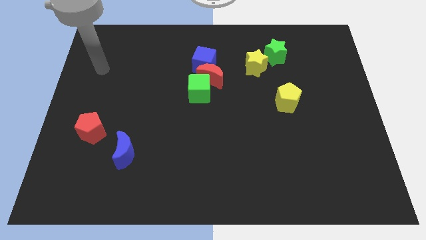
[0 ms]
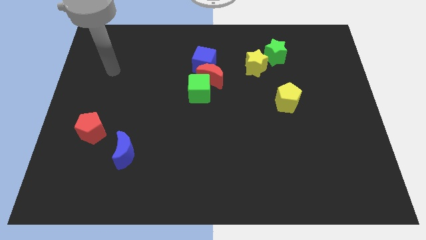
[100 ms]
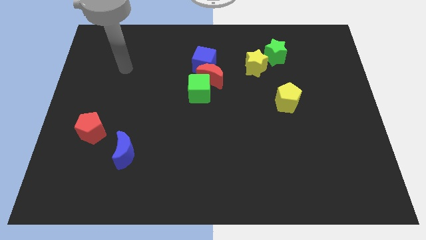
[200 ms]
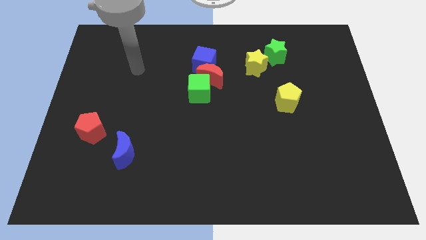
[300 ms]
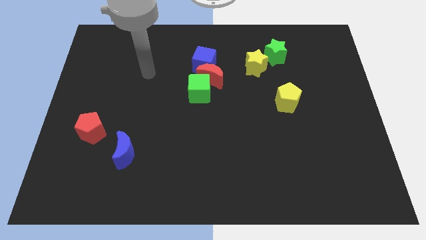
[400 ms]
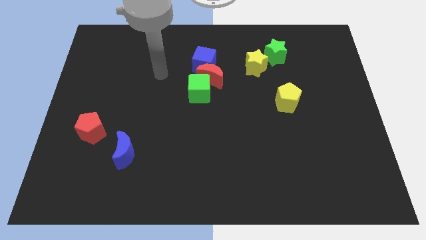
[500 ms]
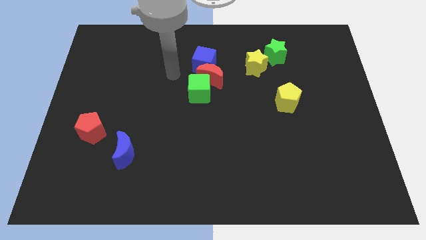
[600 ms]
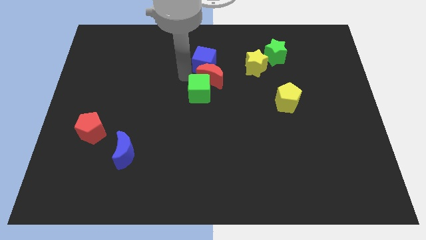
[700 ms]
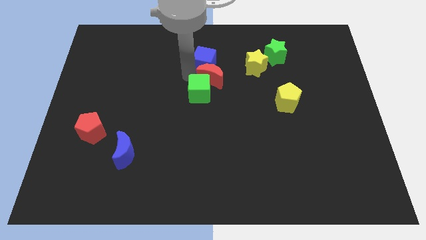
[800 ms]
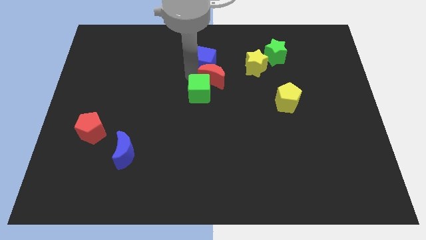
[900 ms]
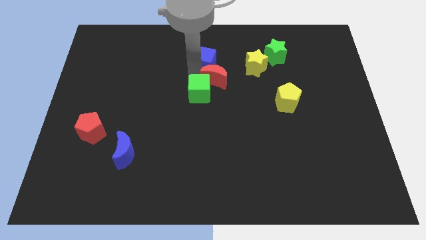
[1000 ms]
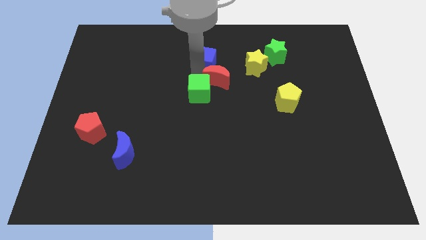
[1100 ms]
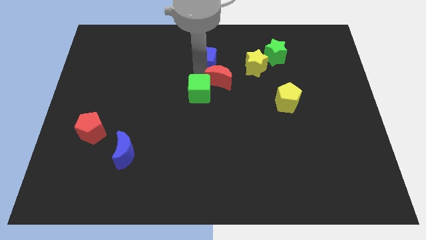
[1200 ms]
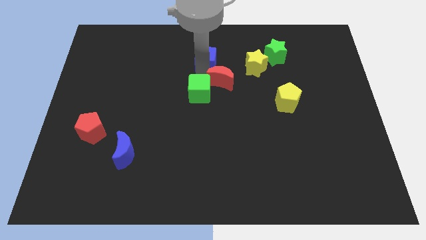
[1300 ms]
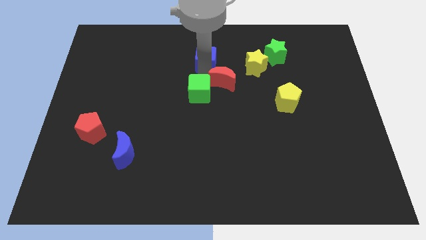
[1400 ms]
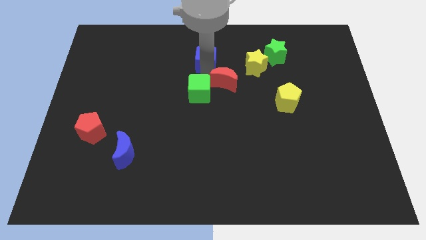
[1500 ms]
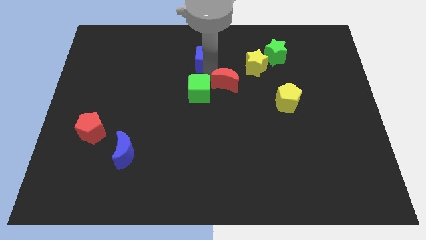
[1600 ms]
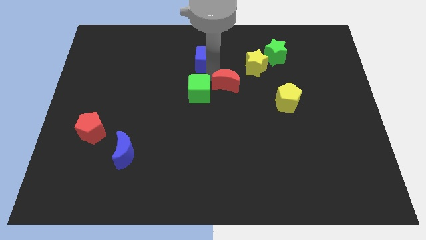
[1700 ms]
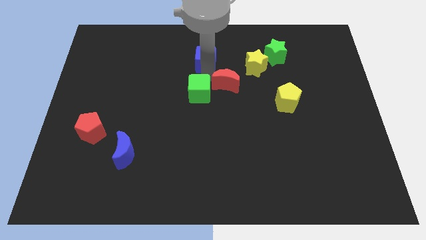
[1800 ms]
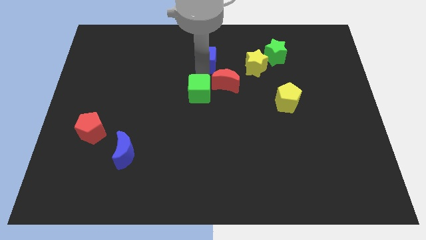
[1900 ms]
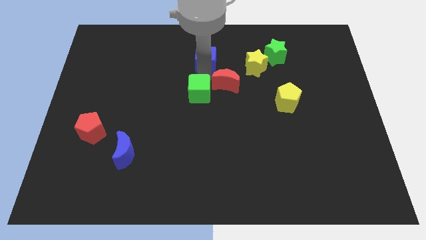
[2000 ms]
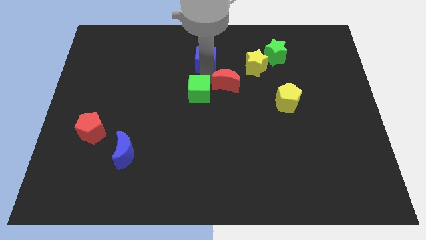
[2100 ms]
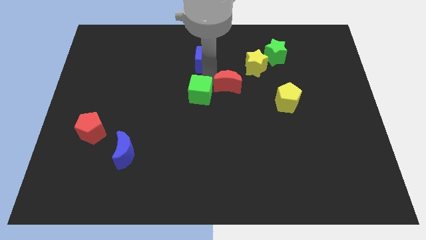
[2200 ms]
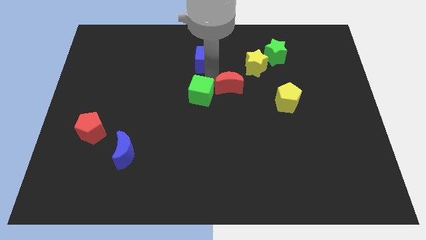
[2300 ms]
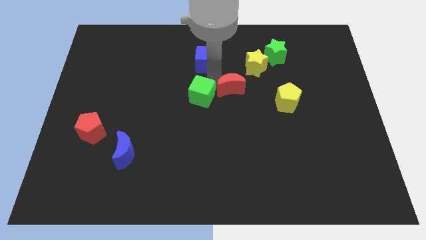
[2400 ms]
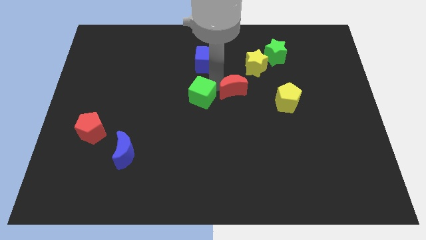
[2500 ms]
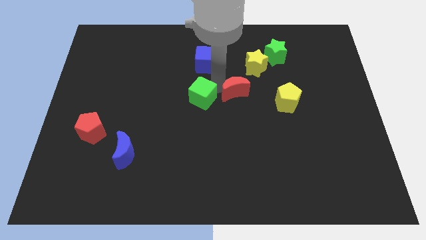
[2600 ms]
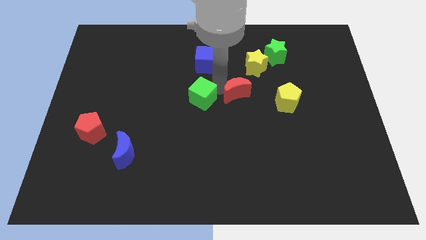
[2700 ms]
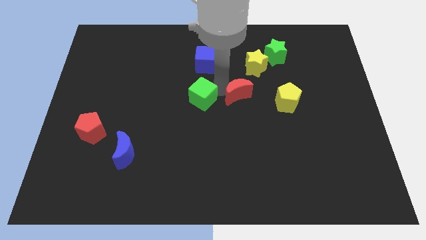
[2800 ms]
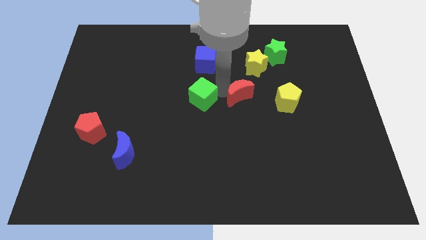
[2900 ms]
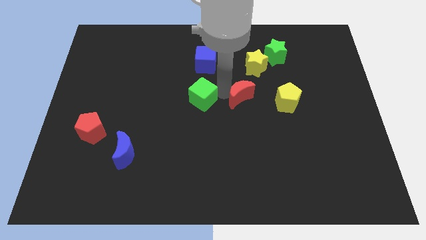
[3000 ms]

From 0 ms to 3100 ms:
move the red moon away from the green cube and blue cube

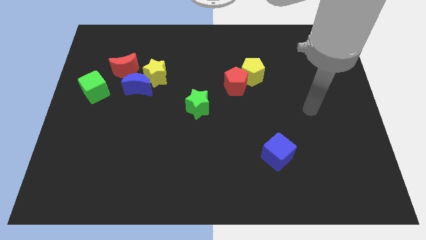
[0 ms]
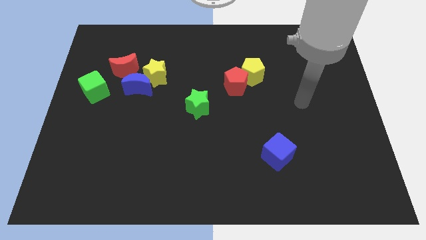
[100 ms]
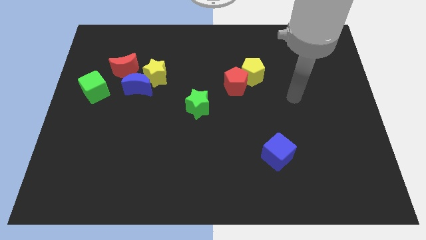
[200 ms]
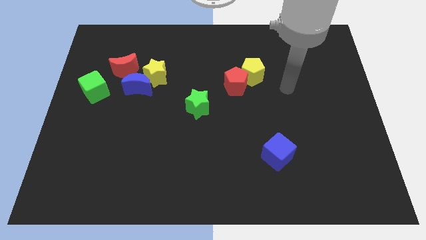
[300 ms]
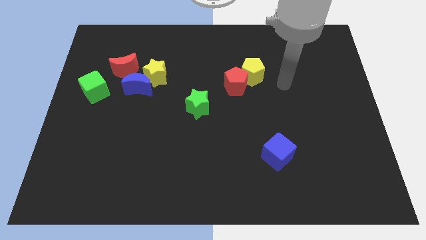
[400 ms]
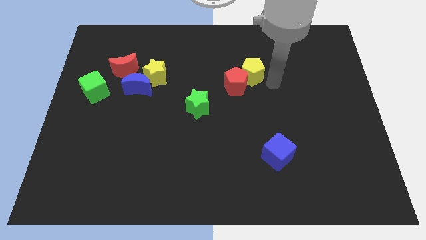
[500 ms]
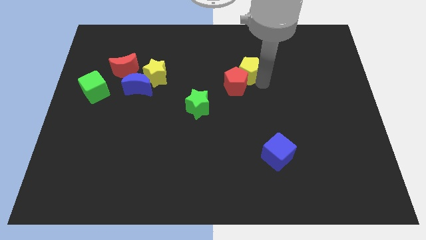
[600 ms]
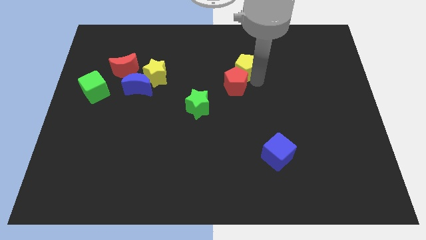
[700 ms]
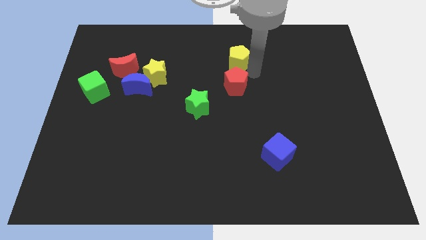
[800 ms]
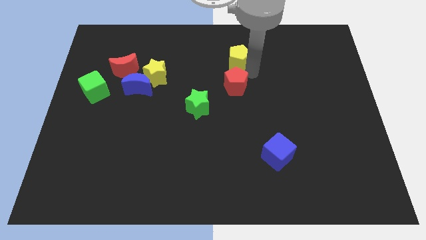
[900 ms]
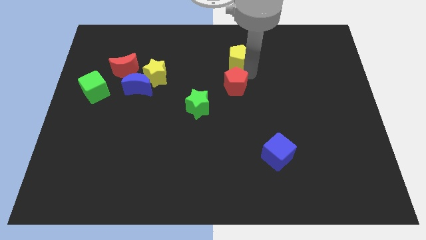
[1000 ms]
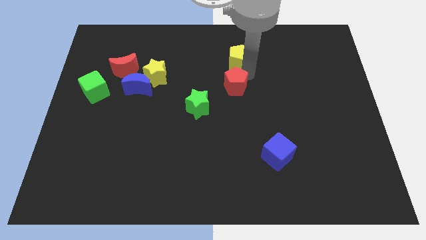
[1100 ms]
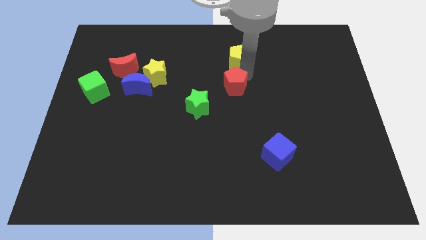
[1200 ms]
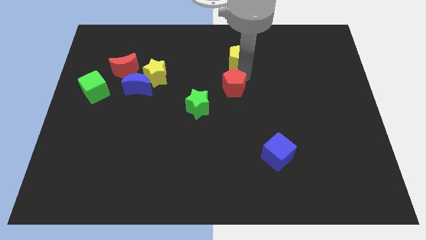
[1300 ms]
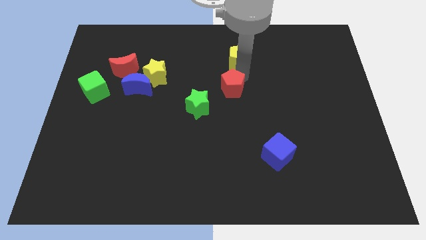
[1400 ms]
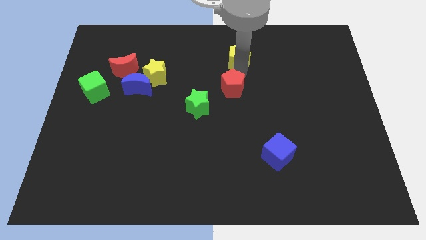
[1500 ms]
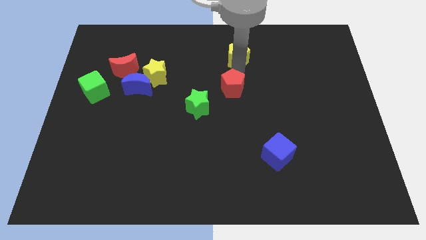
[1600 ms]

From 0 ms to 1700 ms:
pull the red pentagon apart from the yellow pentagon

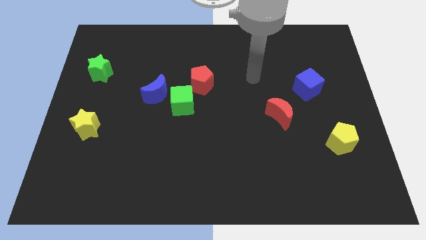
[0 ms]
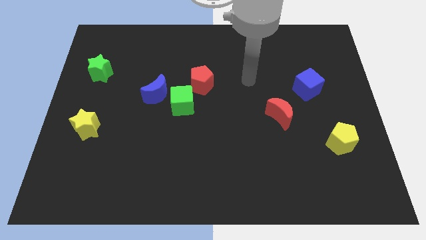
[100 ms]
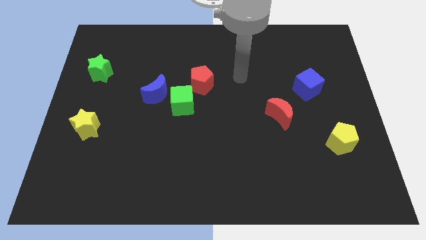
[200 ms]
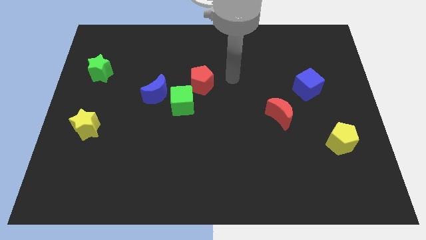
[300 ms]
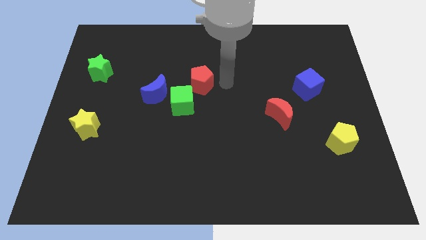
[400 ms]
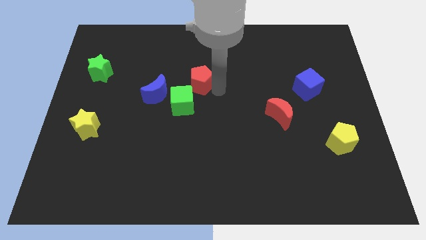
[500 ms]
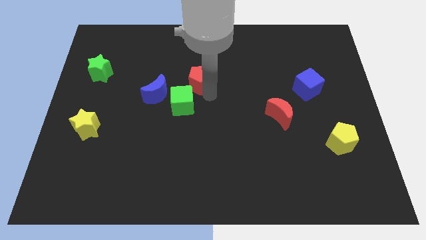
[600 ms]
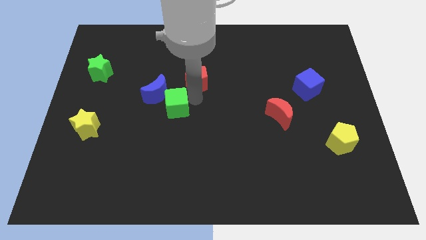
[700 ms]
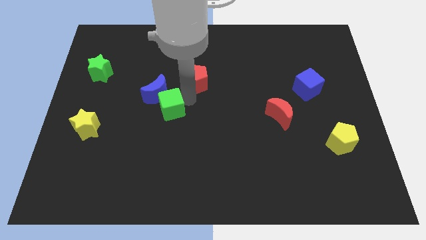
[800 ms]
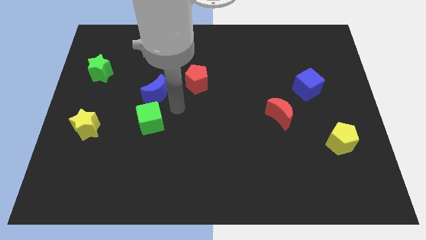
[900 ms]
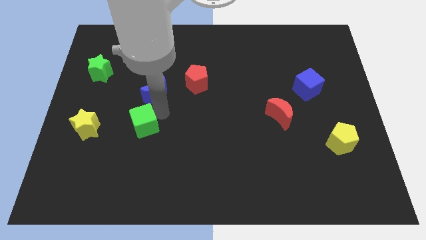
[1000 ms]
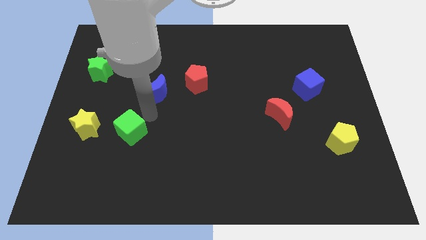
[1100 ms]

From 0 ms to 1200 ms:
separate the blue moon from the green cube

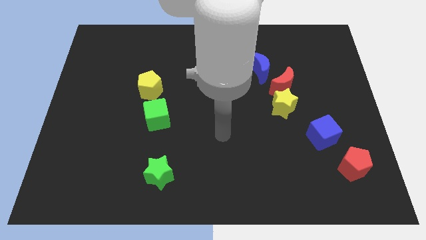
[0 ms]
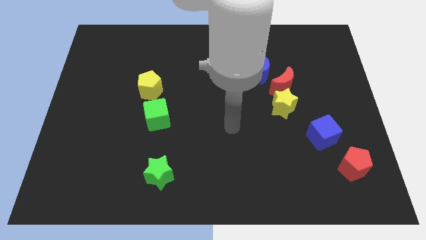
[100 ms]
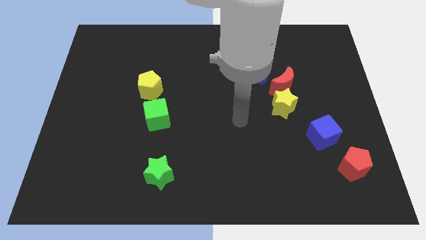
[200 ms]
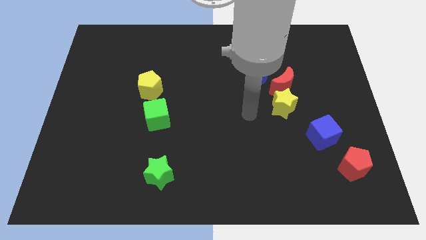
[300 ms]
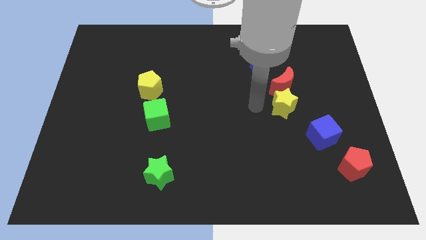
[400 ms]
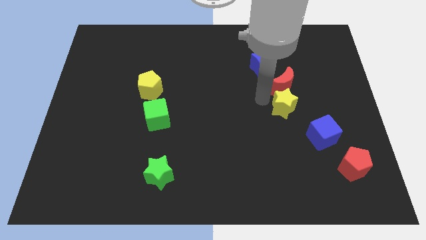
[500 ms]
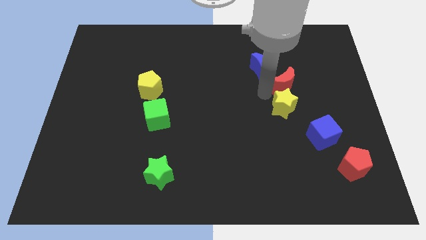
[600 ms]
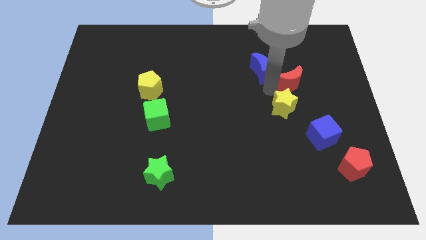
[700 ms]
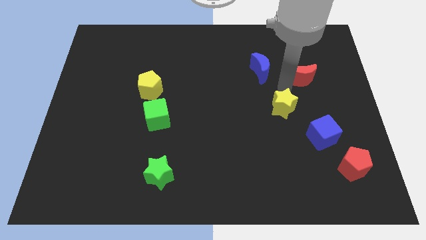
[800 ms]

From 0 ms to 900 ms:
move the yellow star away from the red moon

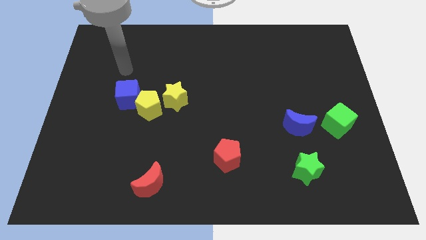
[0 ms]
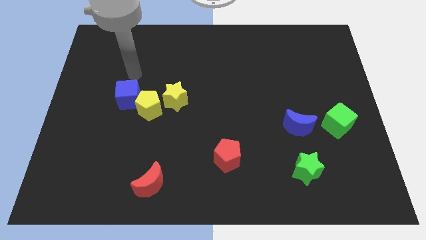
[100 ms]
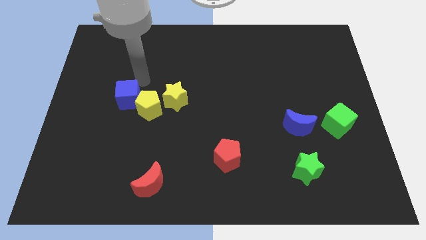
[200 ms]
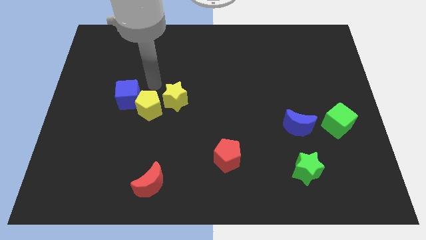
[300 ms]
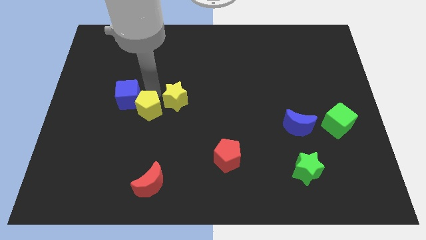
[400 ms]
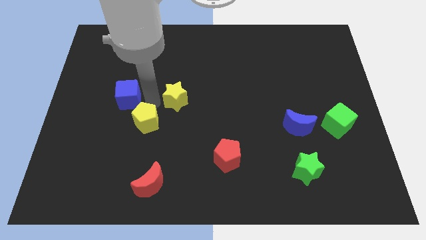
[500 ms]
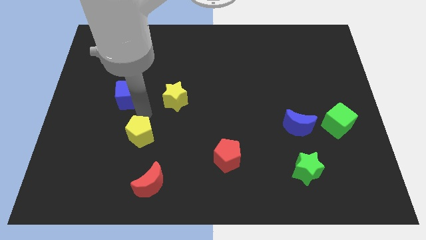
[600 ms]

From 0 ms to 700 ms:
separate the blue cube from the yellow pentagon

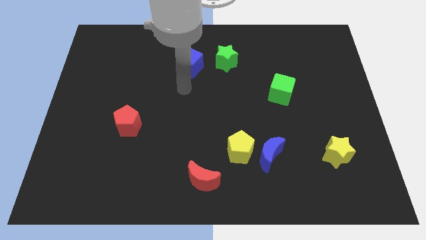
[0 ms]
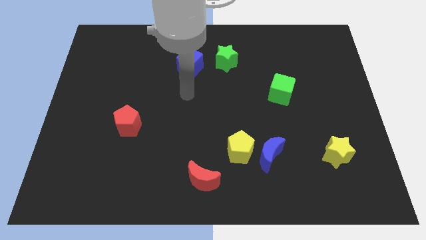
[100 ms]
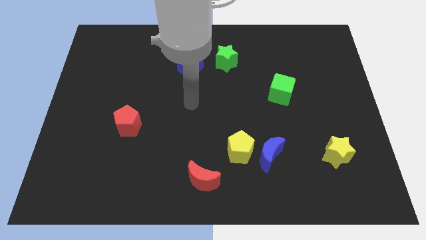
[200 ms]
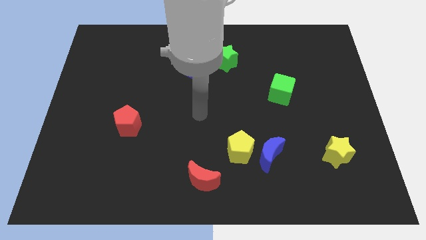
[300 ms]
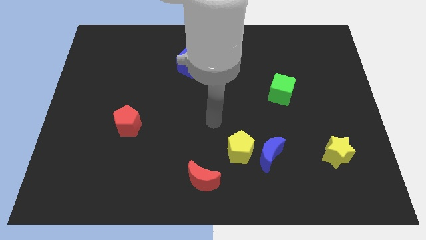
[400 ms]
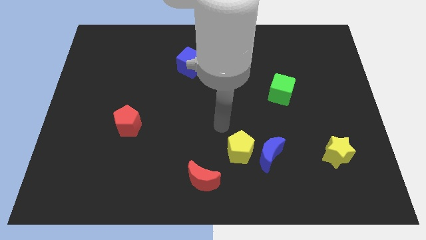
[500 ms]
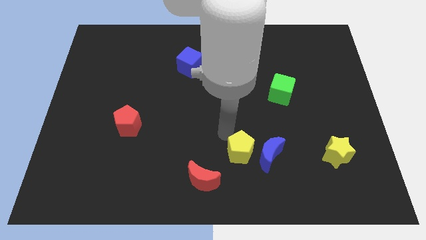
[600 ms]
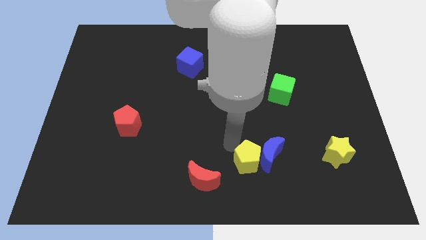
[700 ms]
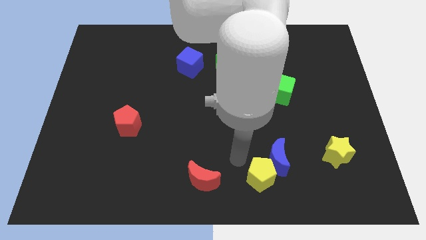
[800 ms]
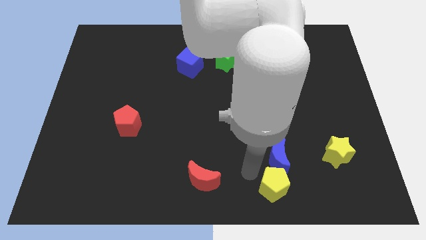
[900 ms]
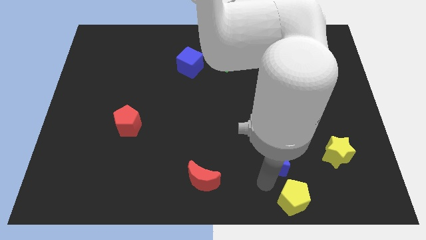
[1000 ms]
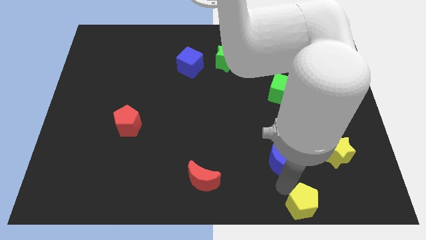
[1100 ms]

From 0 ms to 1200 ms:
move the blue moon away from the yellow pentagon

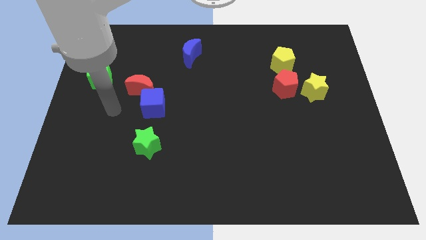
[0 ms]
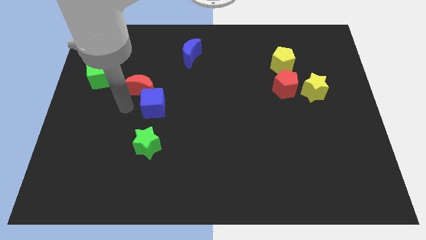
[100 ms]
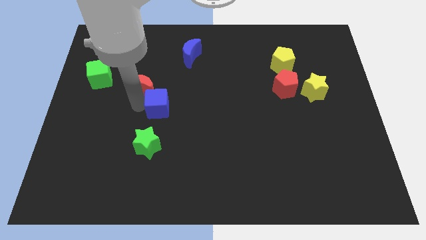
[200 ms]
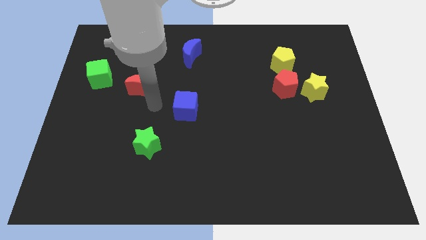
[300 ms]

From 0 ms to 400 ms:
pull the red moon apart from the blue cube

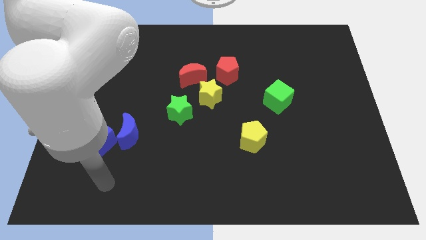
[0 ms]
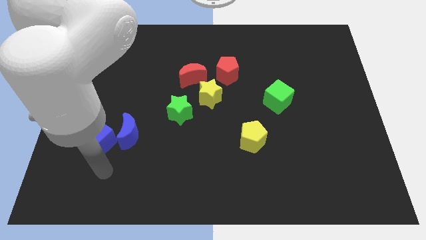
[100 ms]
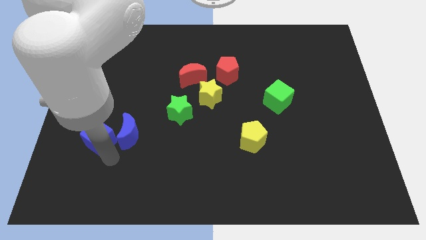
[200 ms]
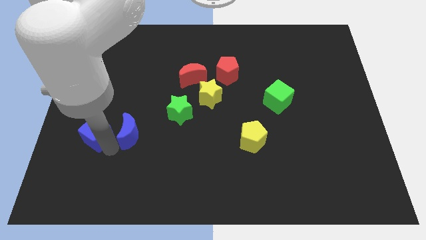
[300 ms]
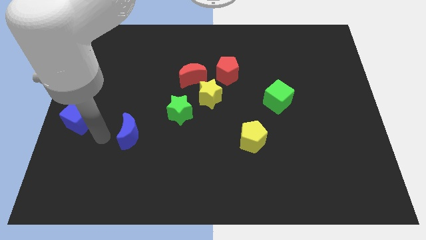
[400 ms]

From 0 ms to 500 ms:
separate the blue moon from the blue cube
